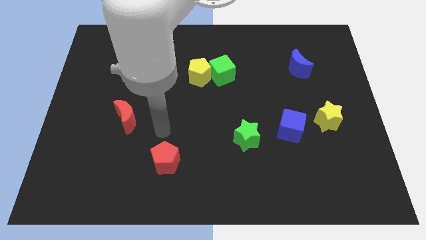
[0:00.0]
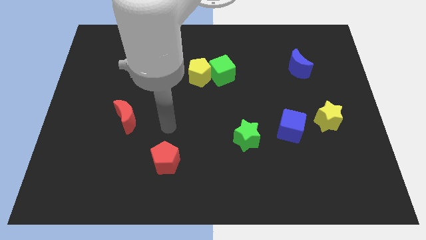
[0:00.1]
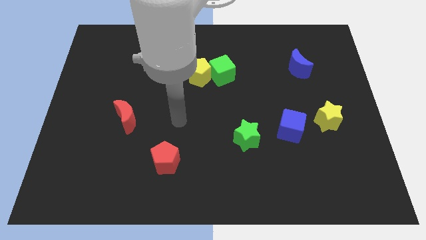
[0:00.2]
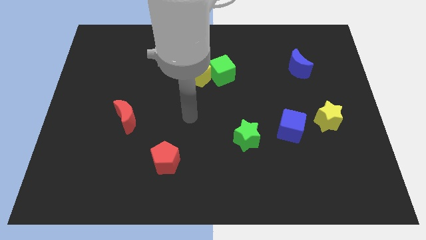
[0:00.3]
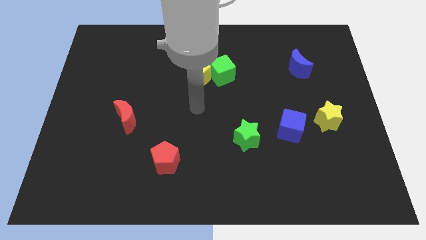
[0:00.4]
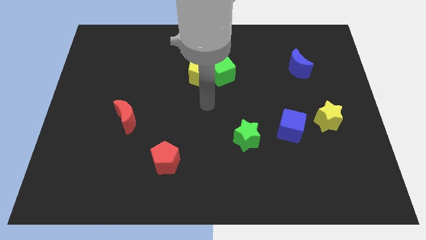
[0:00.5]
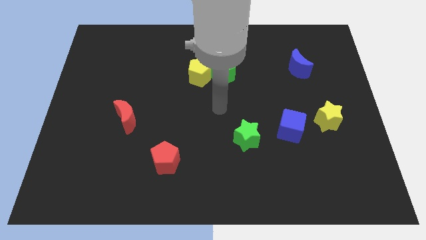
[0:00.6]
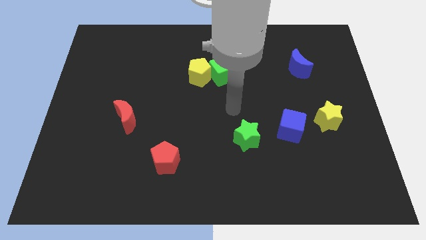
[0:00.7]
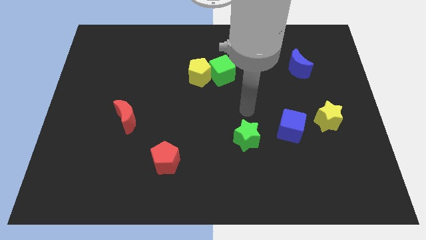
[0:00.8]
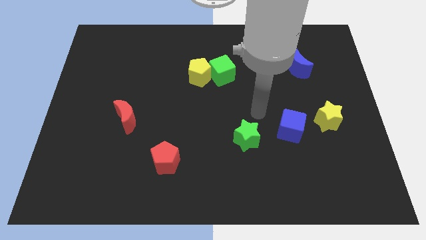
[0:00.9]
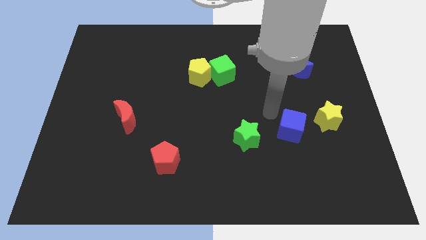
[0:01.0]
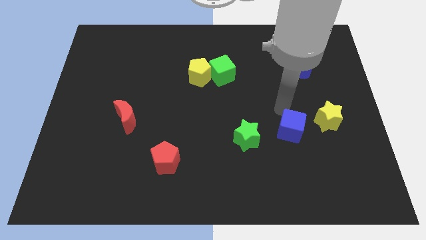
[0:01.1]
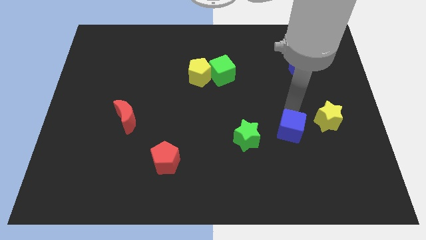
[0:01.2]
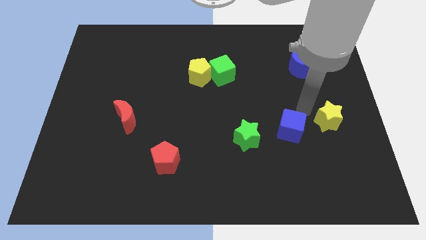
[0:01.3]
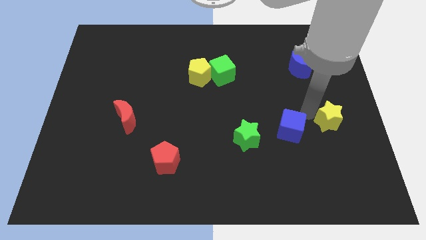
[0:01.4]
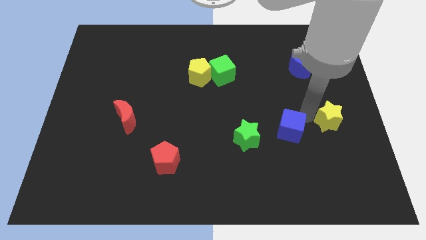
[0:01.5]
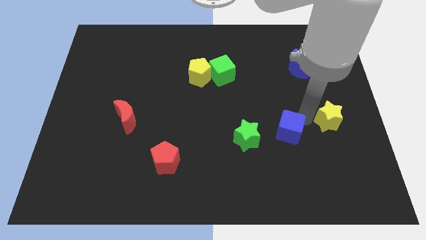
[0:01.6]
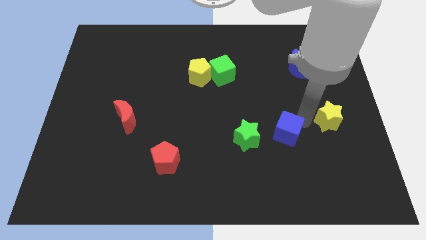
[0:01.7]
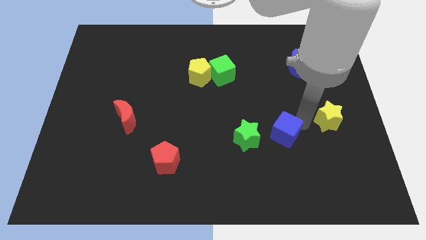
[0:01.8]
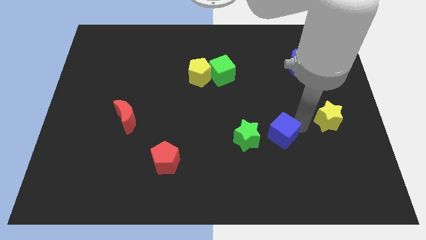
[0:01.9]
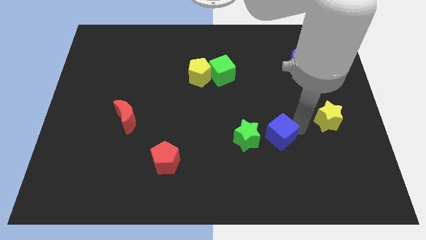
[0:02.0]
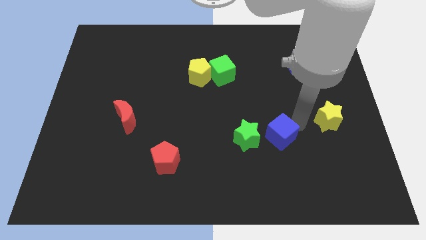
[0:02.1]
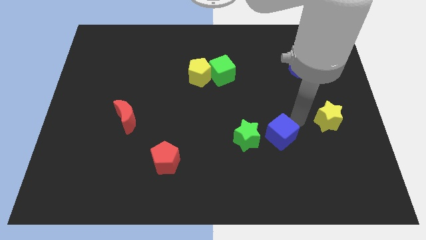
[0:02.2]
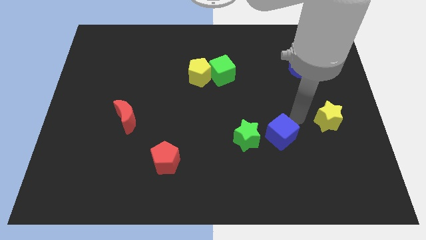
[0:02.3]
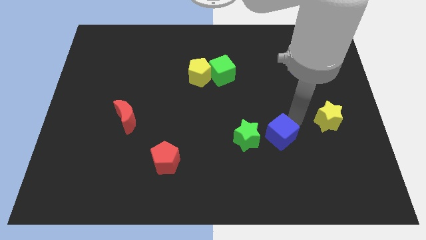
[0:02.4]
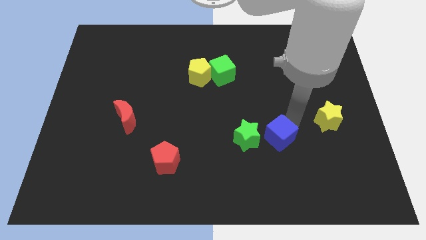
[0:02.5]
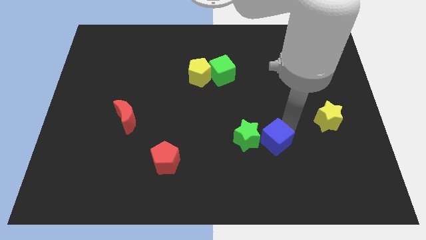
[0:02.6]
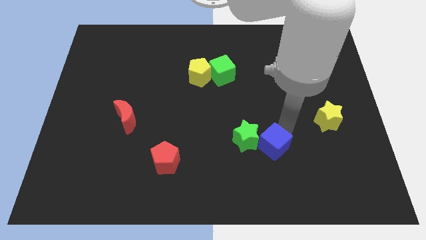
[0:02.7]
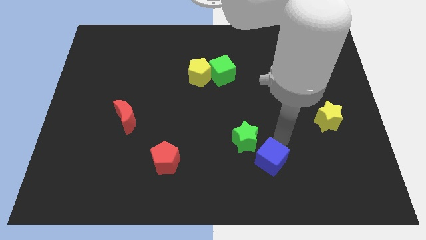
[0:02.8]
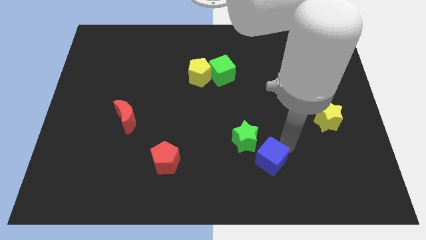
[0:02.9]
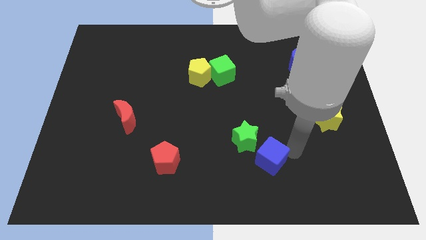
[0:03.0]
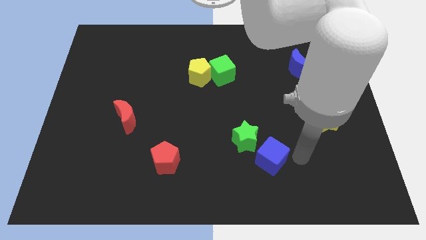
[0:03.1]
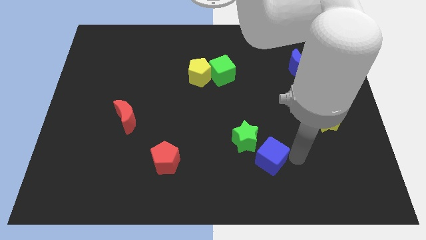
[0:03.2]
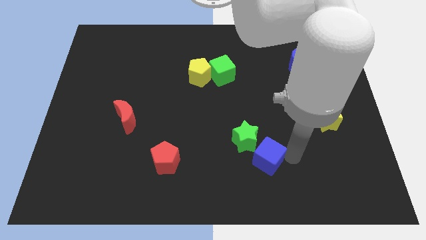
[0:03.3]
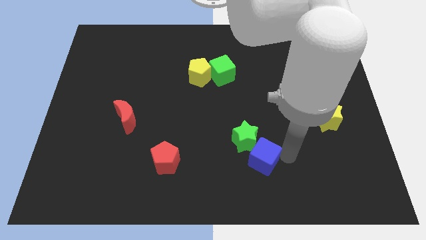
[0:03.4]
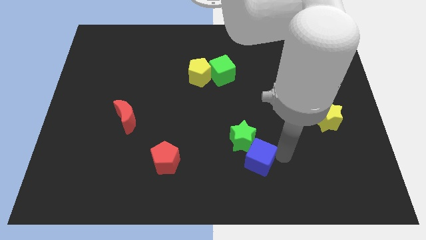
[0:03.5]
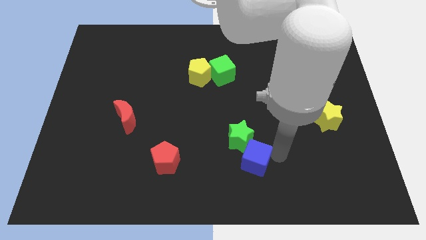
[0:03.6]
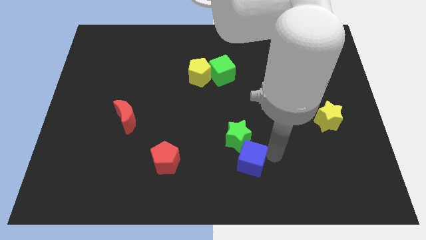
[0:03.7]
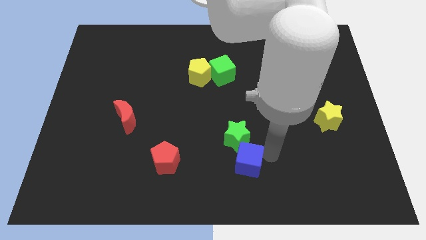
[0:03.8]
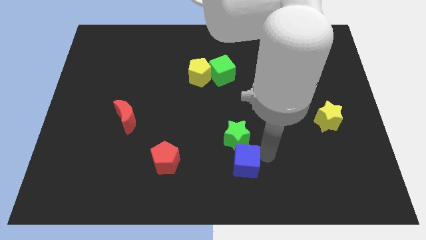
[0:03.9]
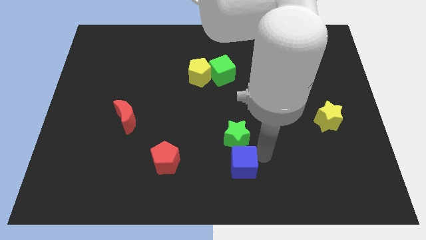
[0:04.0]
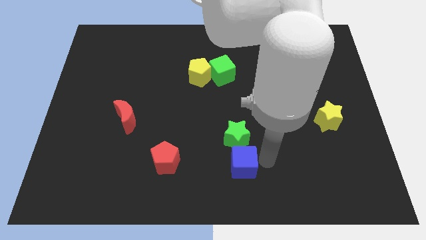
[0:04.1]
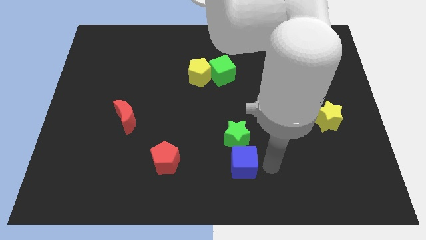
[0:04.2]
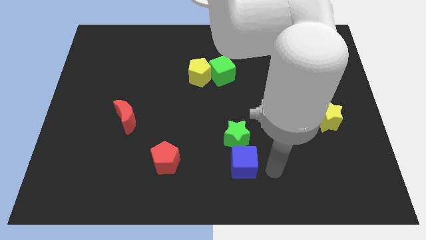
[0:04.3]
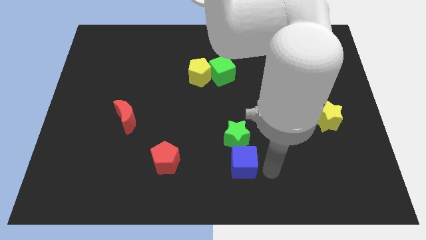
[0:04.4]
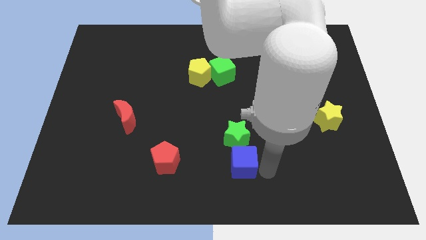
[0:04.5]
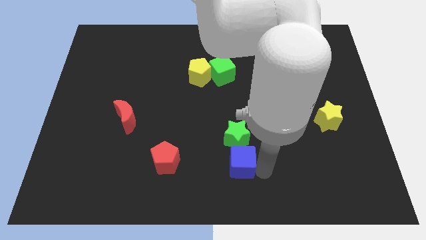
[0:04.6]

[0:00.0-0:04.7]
put the blue cube to the bottom left side of the green star

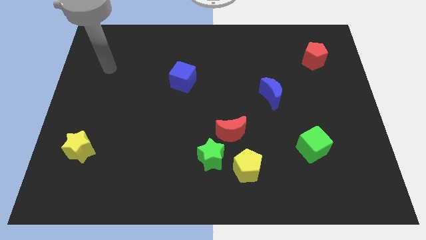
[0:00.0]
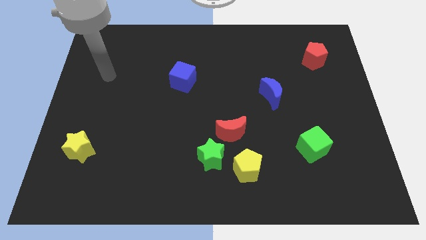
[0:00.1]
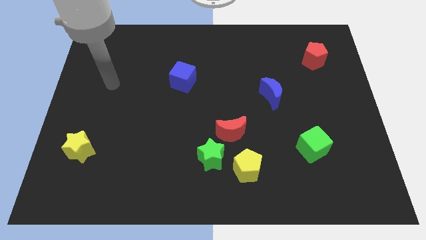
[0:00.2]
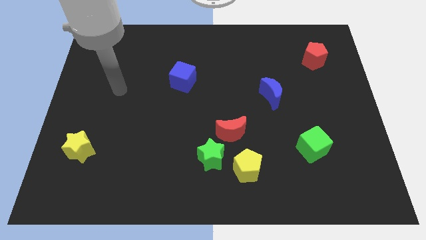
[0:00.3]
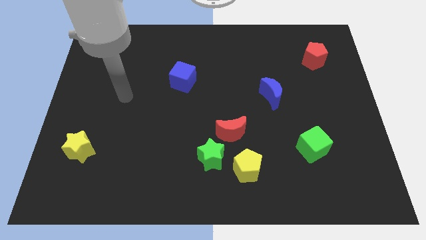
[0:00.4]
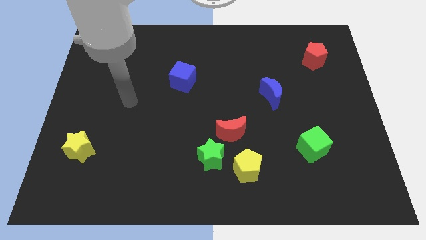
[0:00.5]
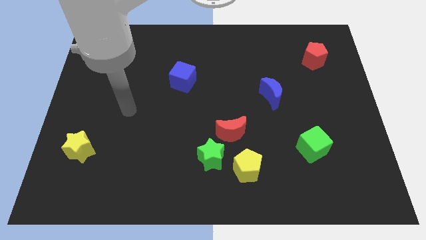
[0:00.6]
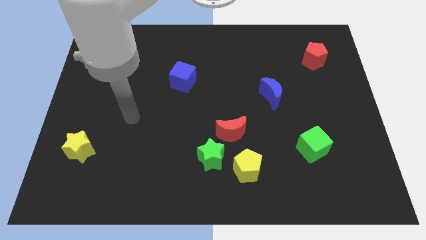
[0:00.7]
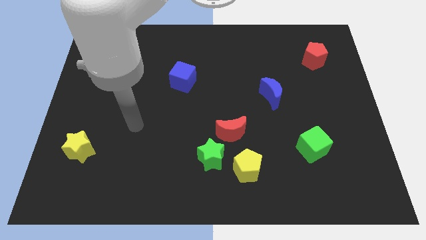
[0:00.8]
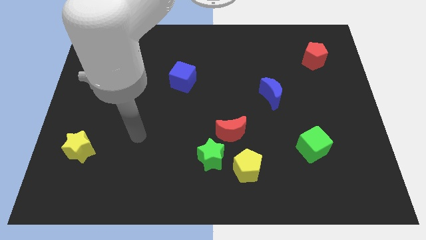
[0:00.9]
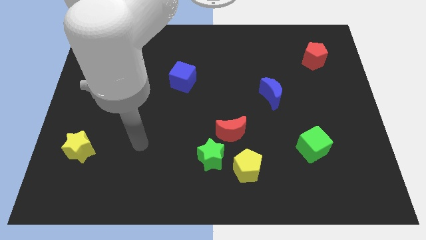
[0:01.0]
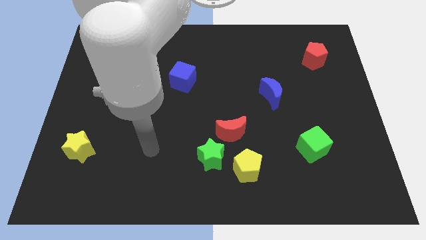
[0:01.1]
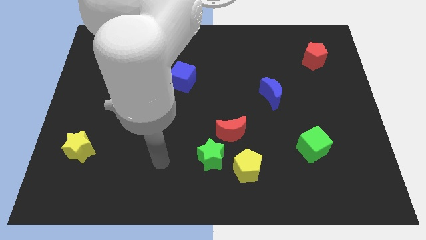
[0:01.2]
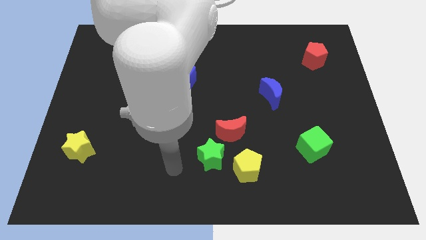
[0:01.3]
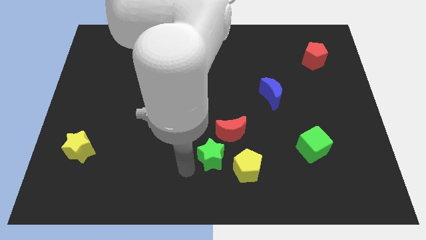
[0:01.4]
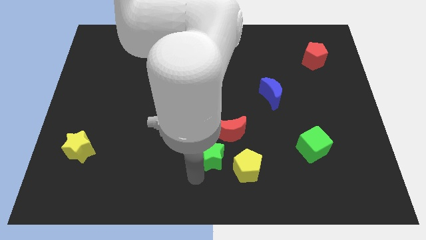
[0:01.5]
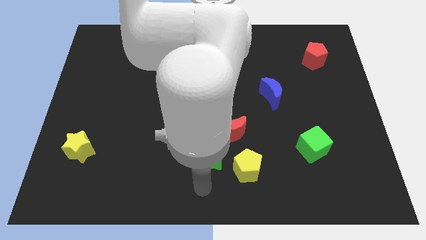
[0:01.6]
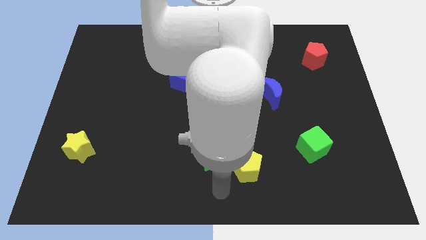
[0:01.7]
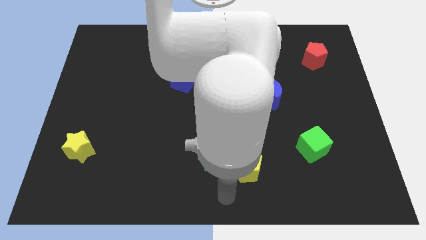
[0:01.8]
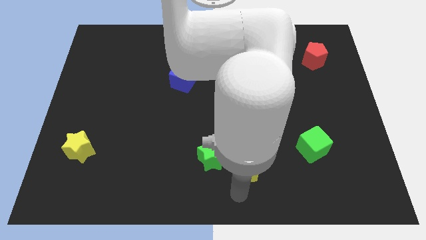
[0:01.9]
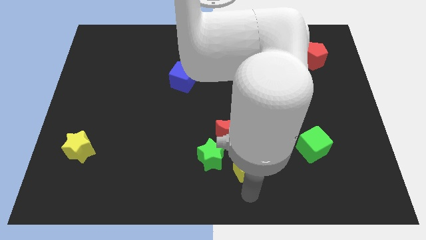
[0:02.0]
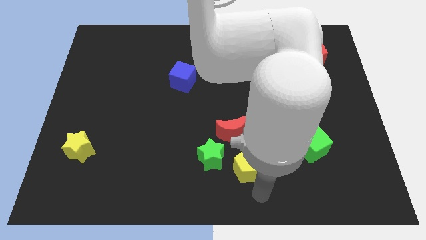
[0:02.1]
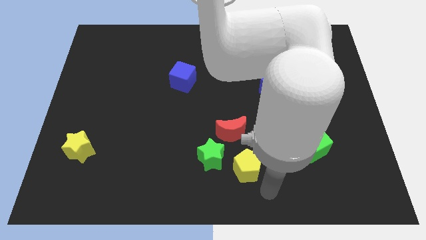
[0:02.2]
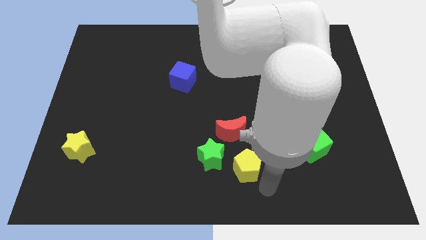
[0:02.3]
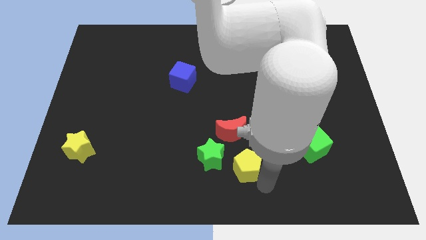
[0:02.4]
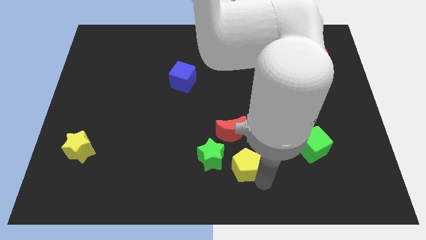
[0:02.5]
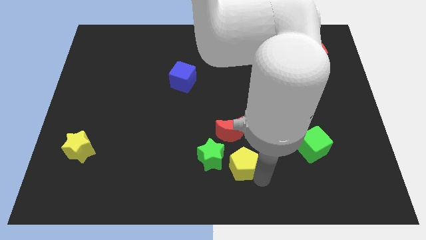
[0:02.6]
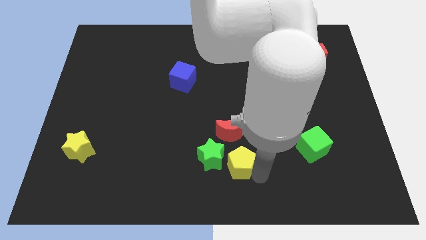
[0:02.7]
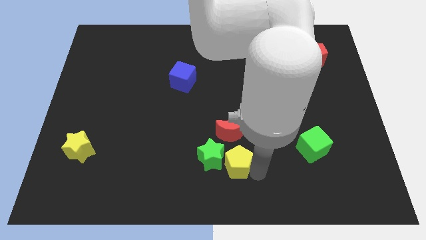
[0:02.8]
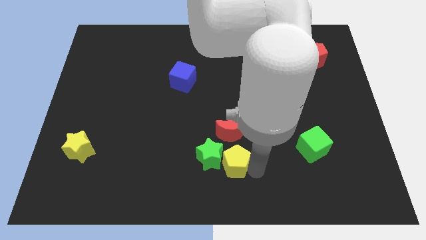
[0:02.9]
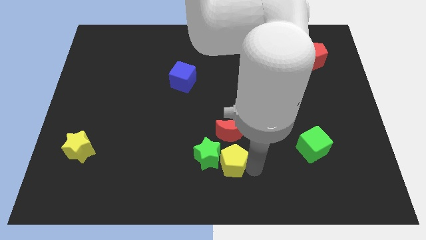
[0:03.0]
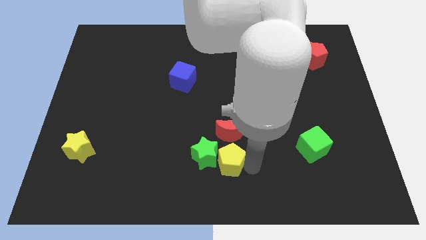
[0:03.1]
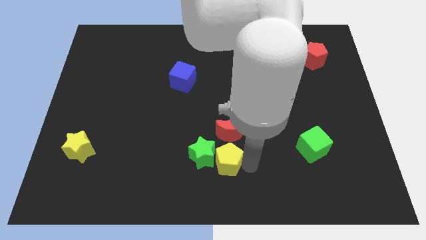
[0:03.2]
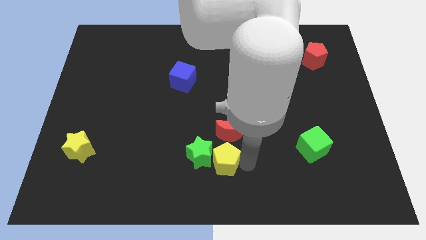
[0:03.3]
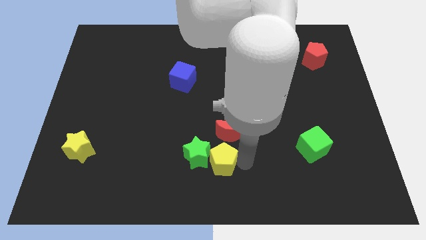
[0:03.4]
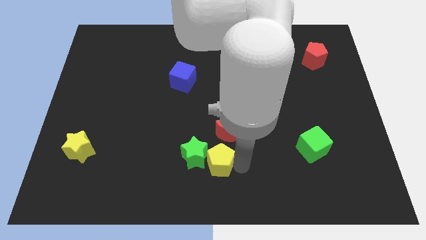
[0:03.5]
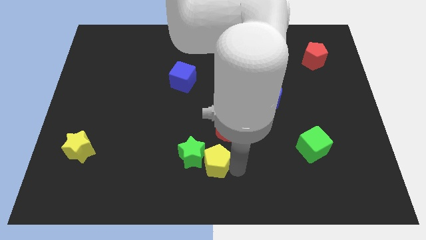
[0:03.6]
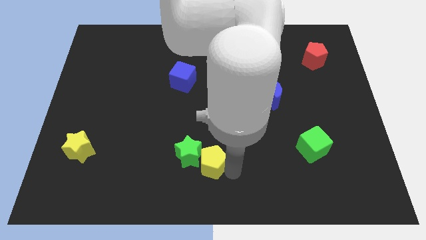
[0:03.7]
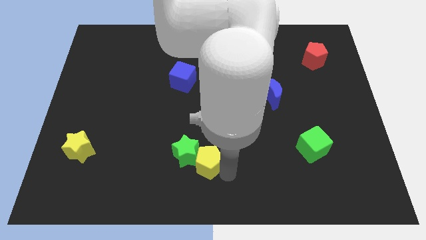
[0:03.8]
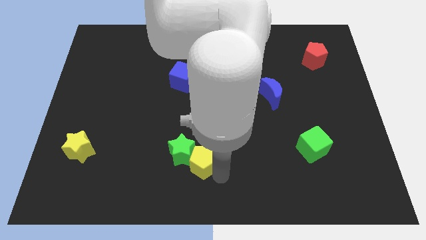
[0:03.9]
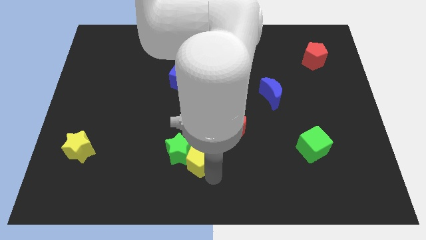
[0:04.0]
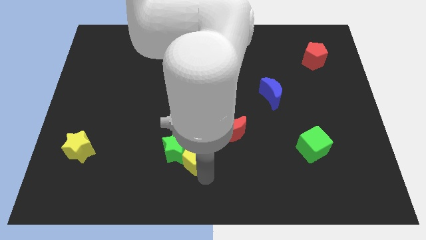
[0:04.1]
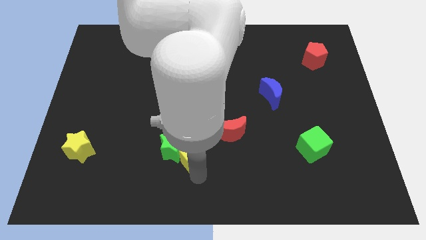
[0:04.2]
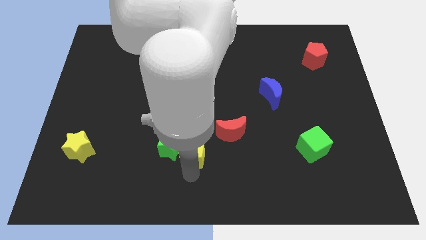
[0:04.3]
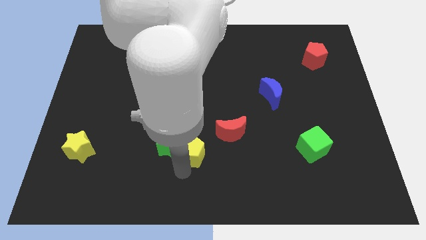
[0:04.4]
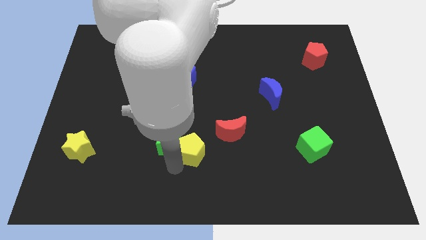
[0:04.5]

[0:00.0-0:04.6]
put the yellow pentagon to the left of the red moon
